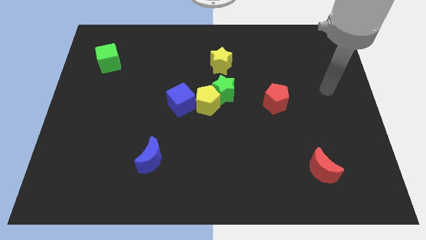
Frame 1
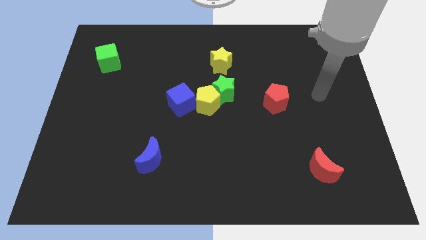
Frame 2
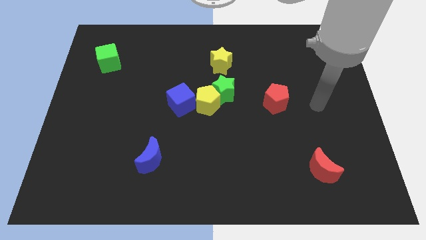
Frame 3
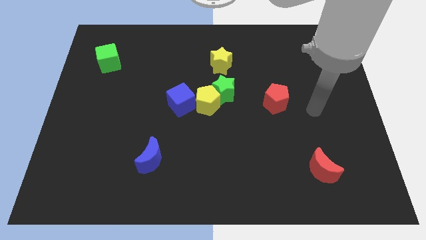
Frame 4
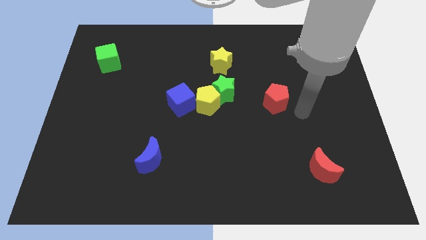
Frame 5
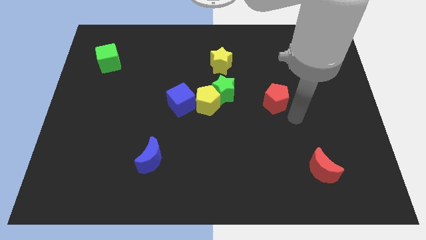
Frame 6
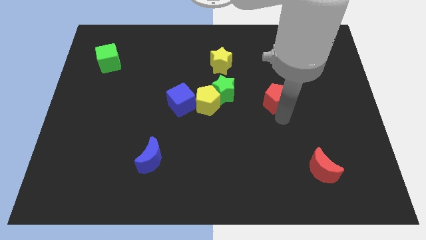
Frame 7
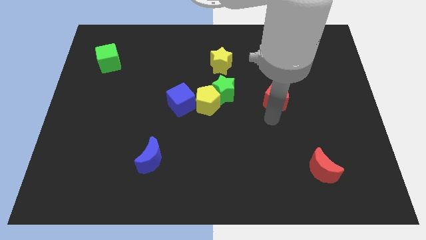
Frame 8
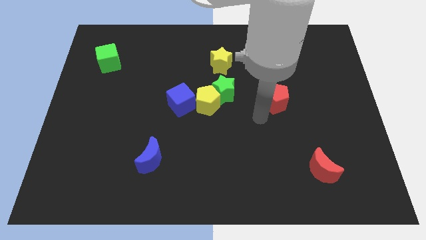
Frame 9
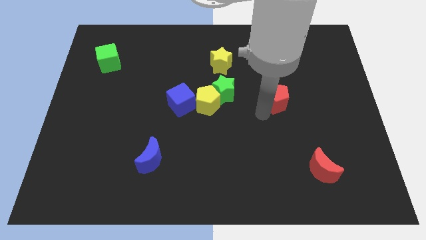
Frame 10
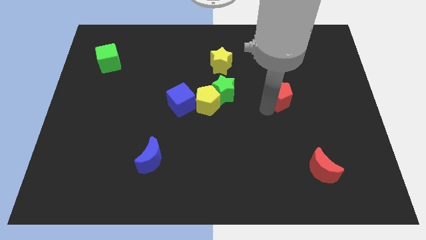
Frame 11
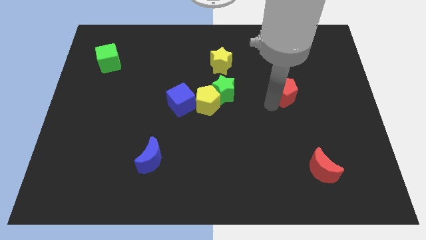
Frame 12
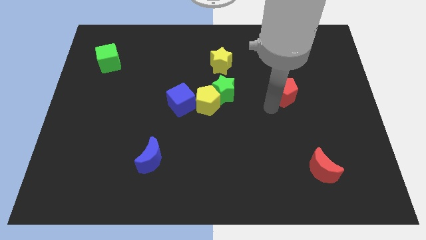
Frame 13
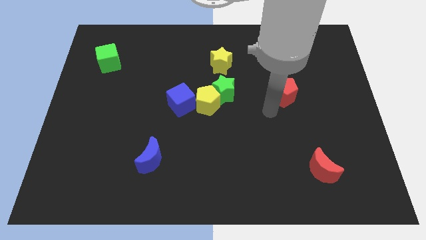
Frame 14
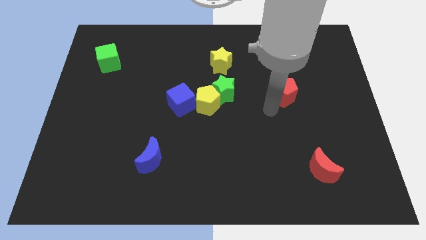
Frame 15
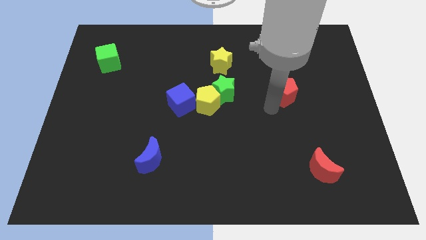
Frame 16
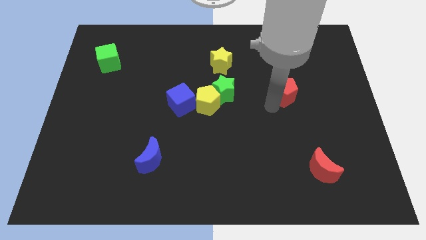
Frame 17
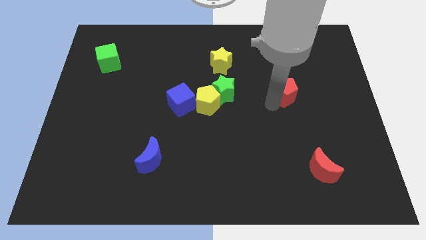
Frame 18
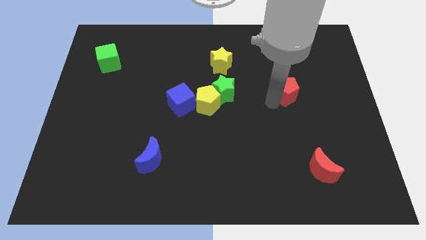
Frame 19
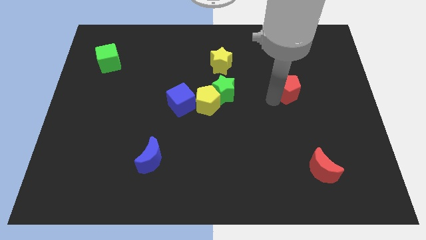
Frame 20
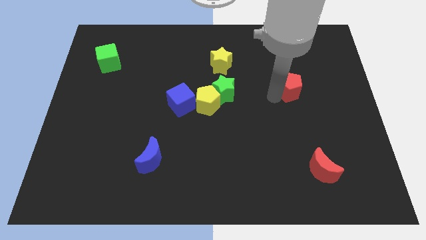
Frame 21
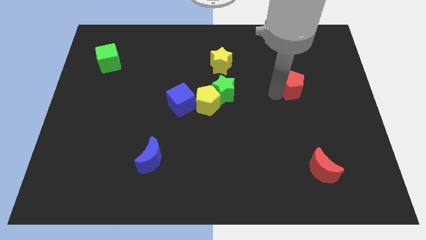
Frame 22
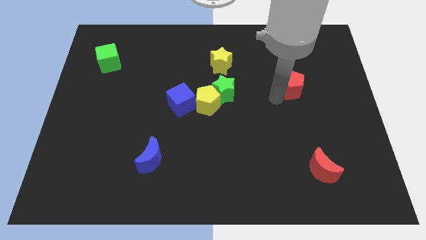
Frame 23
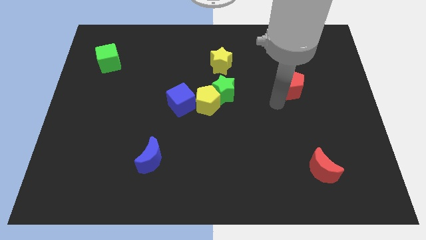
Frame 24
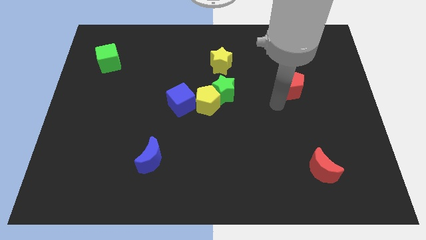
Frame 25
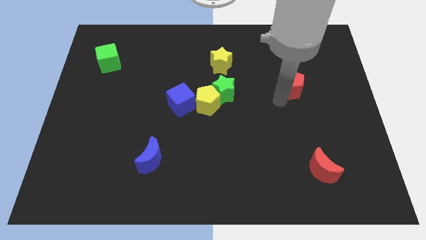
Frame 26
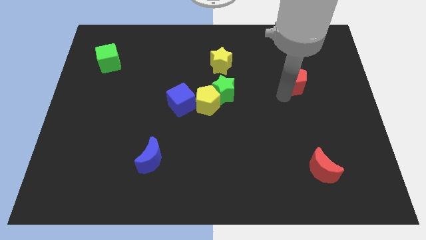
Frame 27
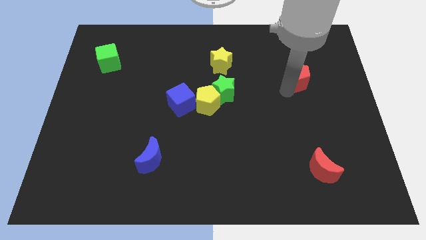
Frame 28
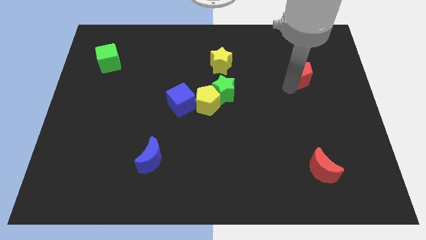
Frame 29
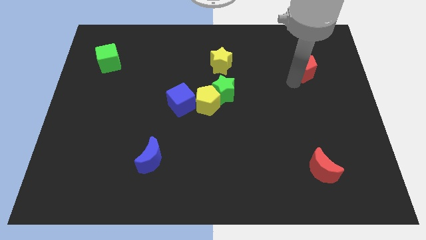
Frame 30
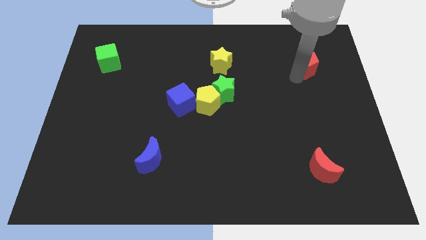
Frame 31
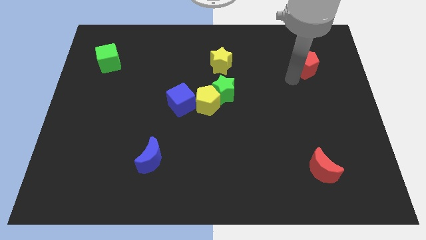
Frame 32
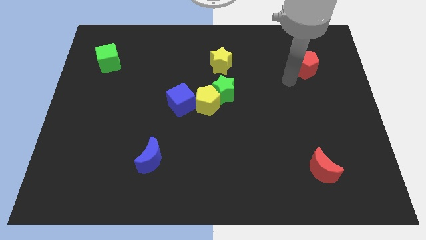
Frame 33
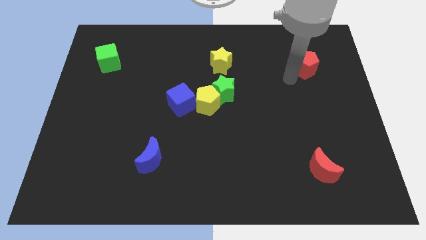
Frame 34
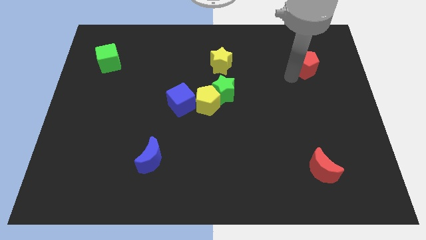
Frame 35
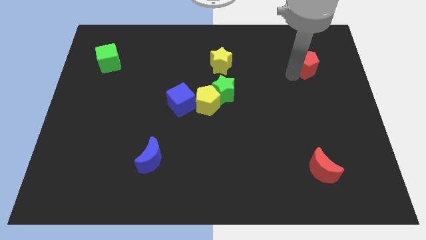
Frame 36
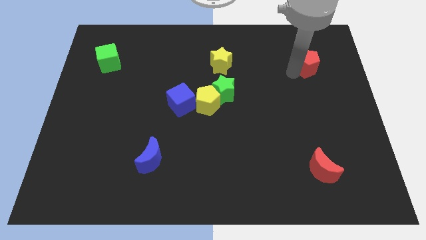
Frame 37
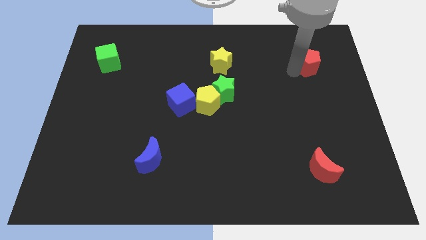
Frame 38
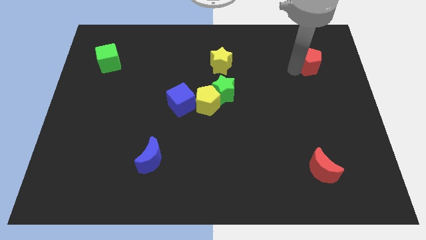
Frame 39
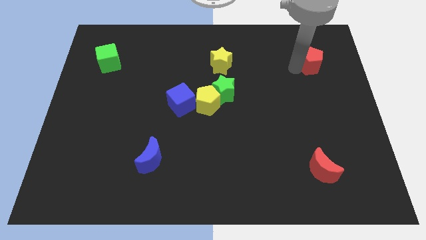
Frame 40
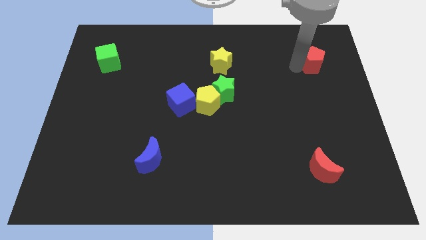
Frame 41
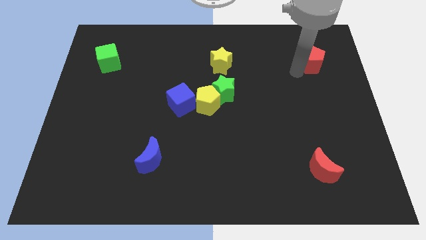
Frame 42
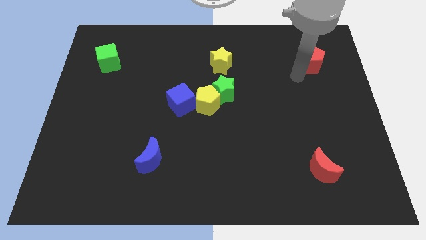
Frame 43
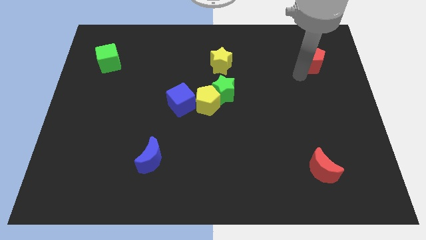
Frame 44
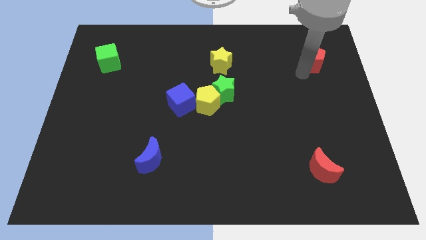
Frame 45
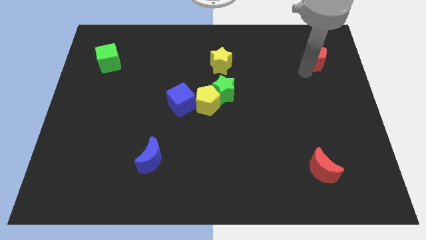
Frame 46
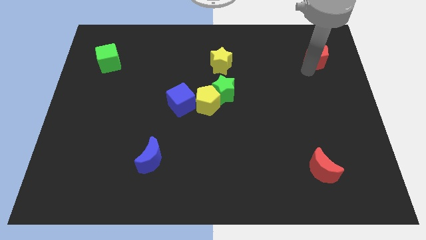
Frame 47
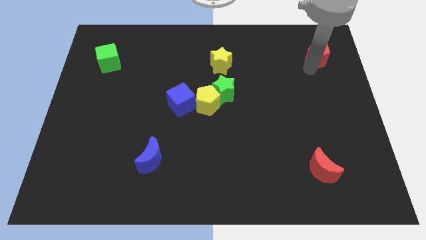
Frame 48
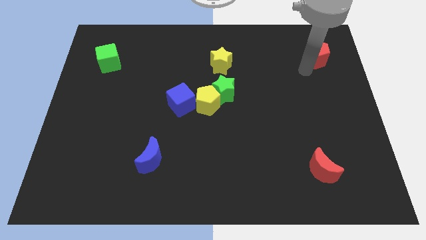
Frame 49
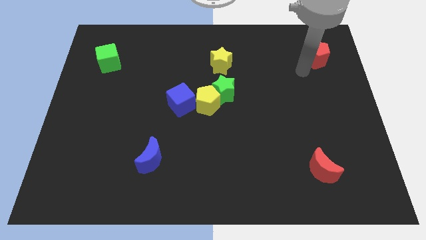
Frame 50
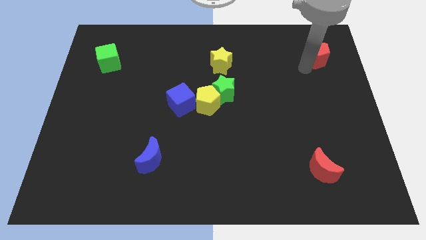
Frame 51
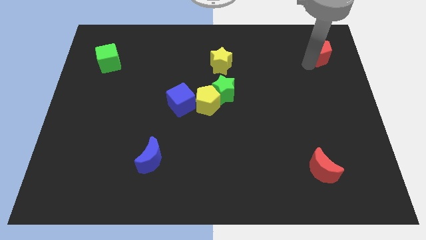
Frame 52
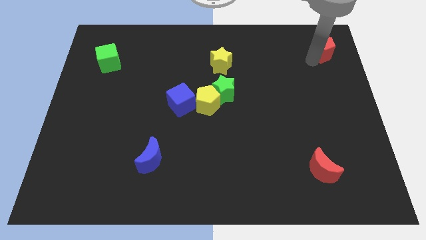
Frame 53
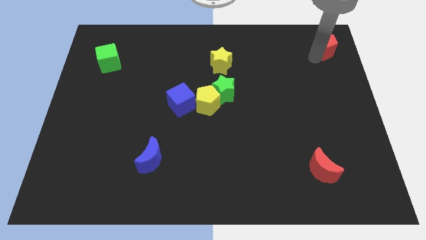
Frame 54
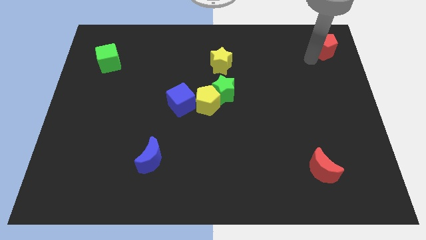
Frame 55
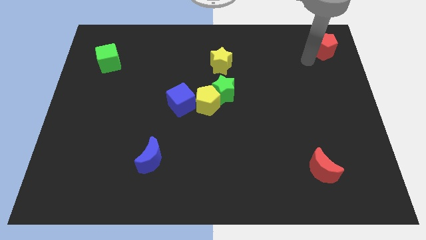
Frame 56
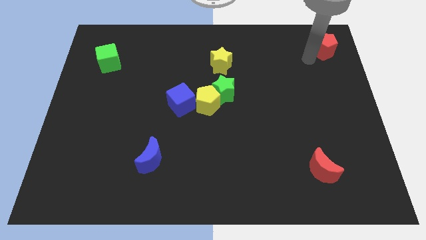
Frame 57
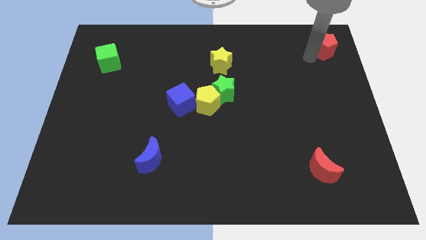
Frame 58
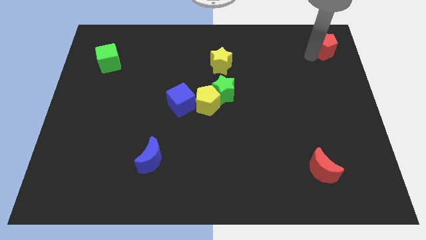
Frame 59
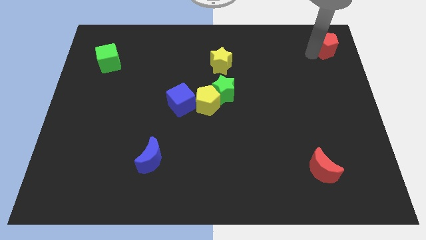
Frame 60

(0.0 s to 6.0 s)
move the red pentagon to the top right
